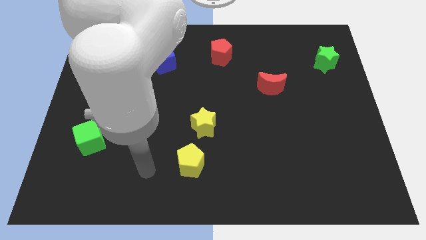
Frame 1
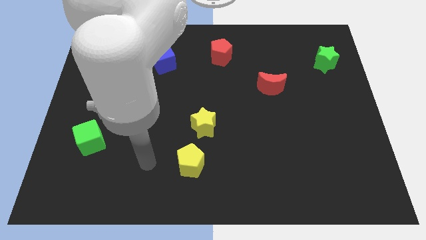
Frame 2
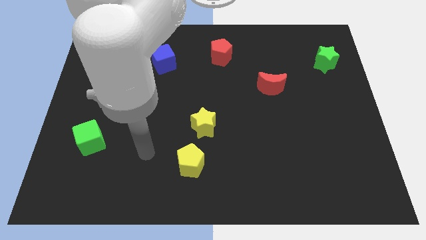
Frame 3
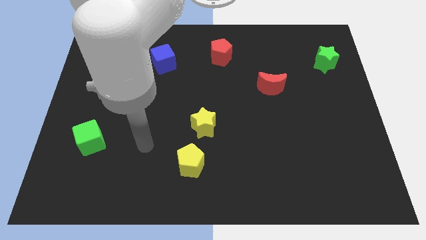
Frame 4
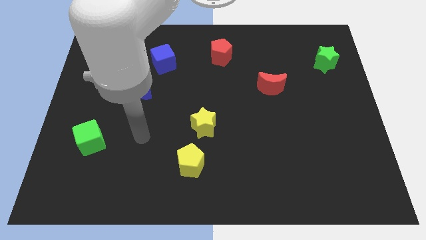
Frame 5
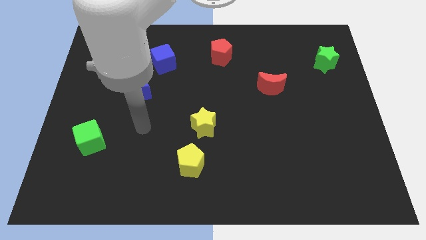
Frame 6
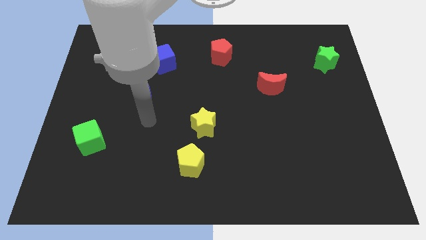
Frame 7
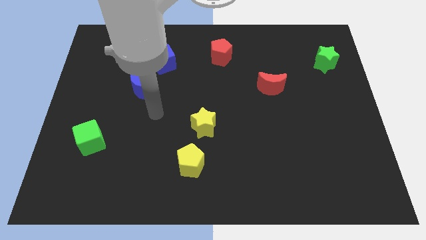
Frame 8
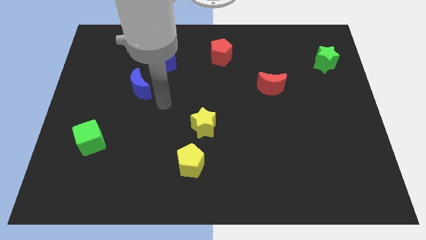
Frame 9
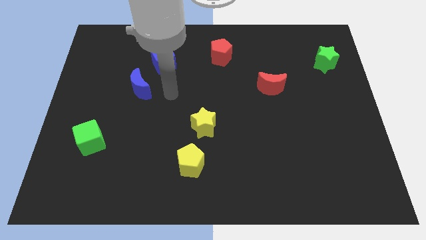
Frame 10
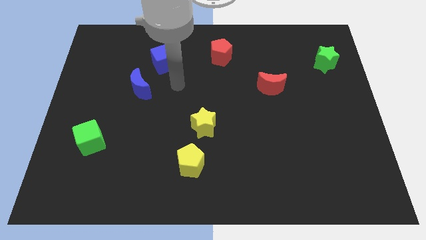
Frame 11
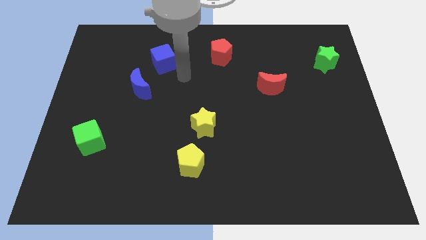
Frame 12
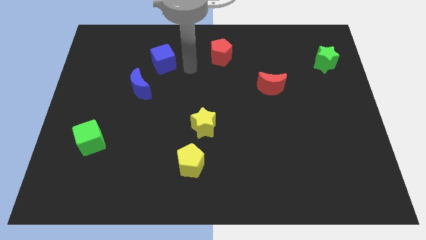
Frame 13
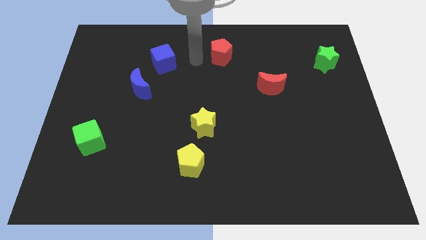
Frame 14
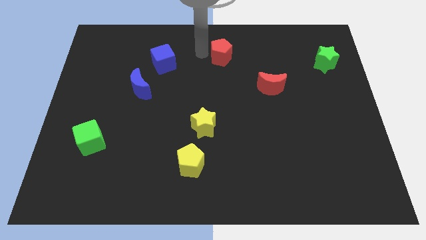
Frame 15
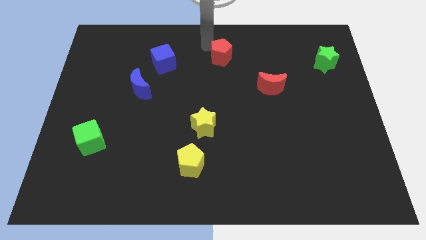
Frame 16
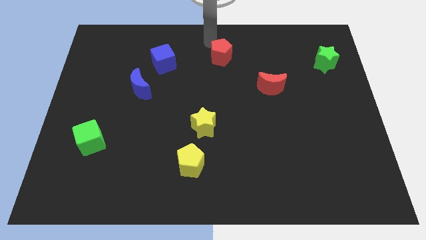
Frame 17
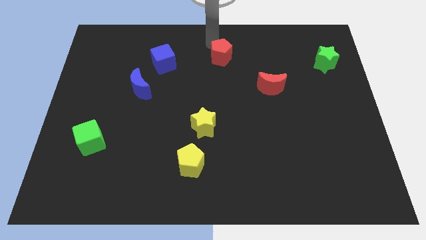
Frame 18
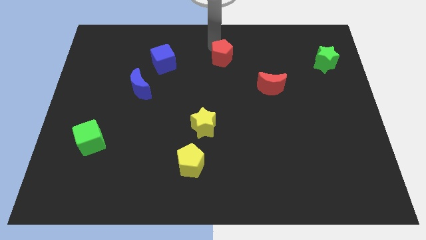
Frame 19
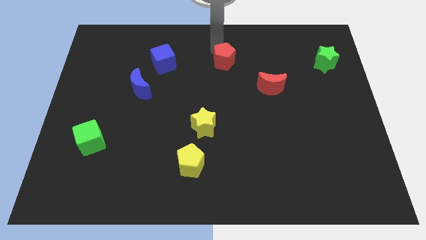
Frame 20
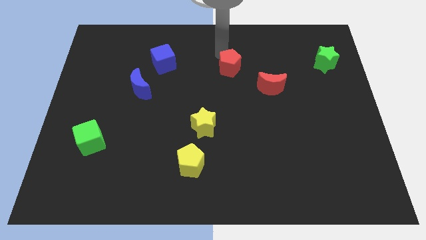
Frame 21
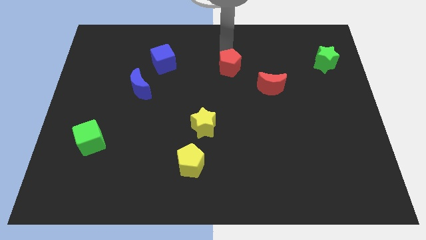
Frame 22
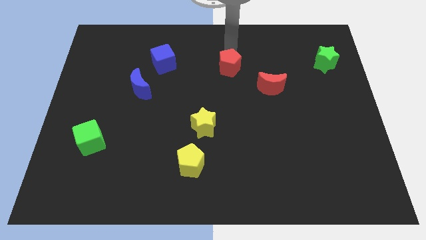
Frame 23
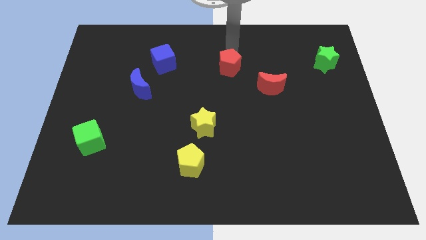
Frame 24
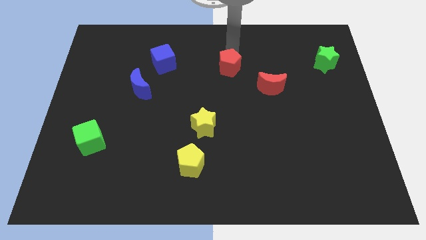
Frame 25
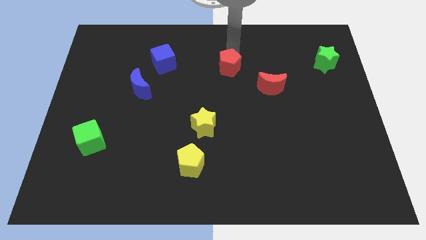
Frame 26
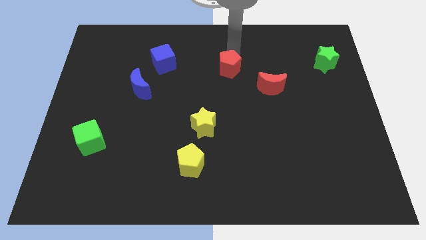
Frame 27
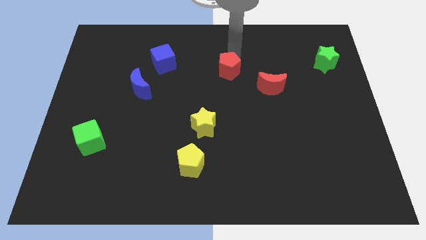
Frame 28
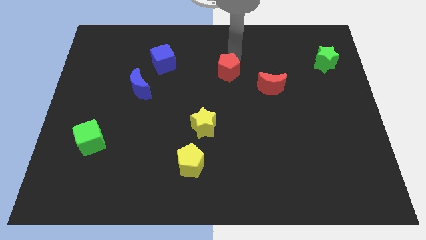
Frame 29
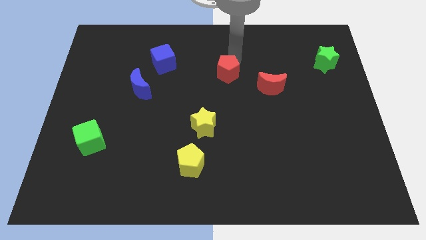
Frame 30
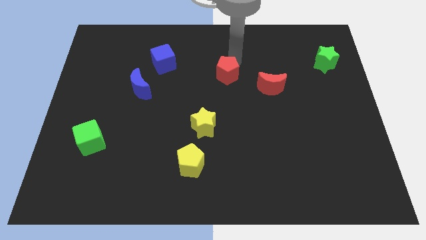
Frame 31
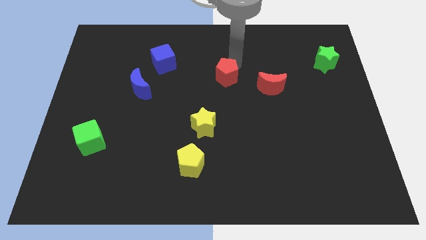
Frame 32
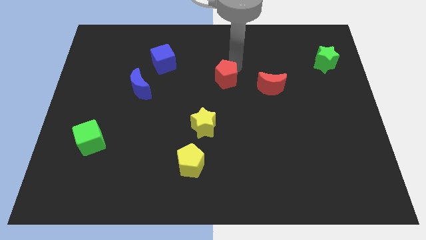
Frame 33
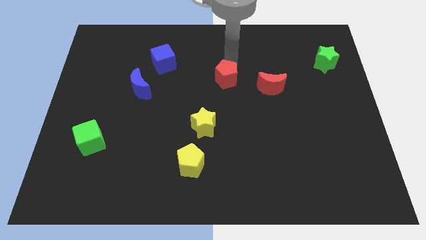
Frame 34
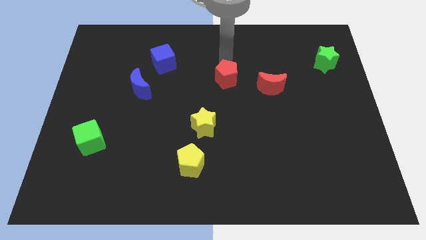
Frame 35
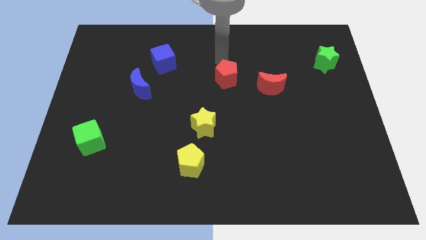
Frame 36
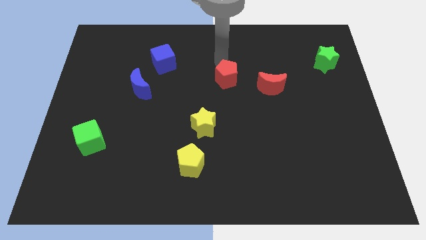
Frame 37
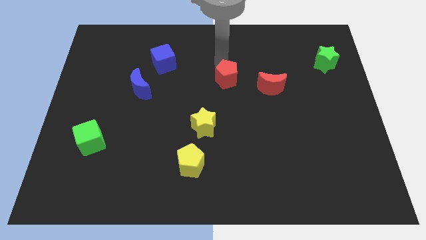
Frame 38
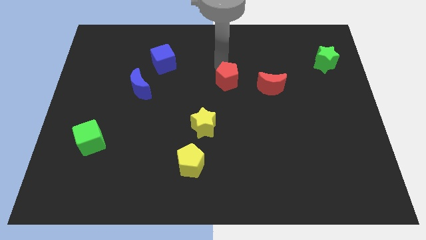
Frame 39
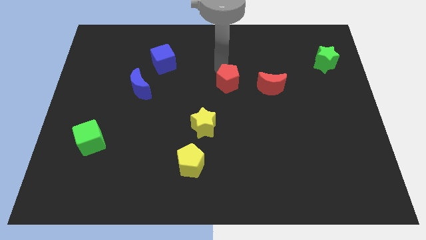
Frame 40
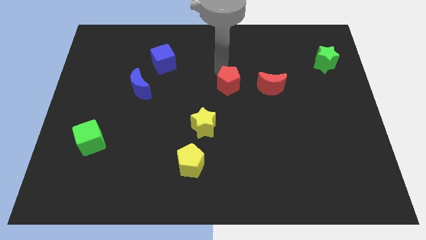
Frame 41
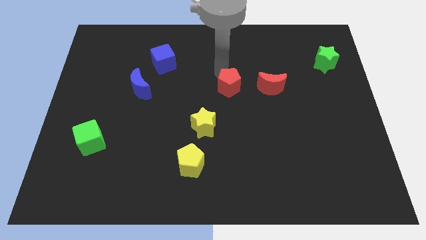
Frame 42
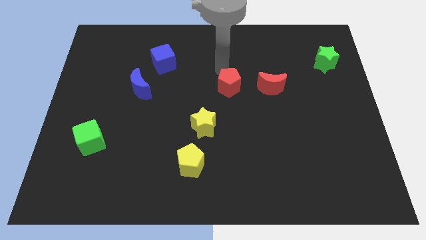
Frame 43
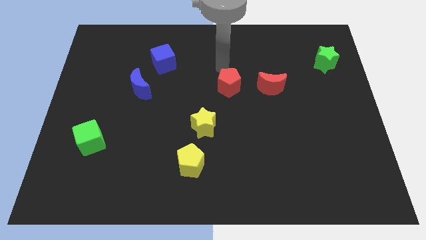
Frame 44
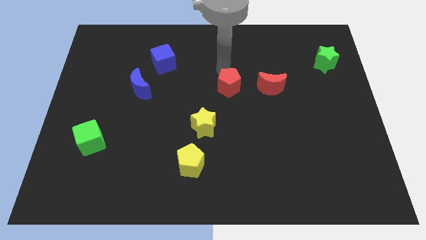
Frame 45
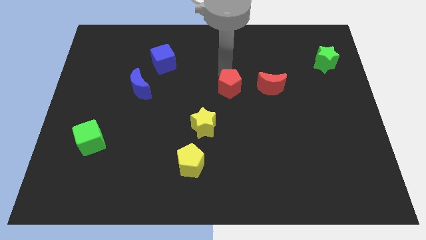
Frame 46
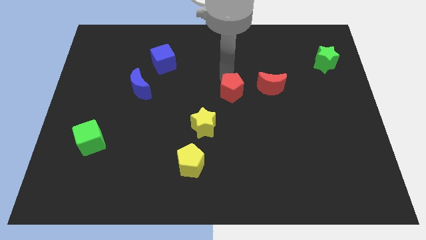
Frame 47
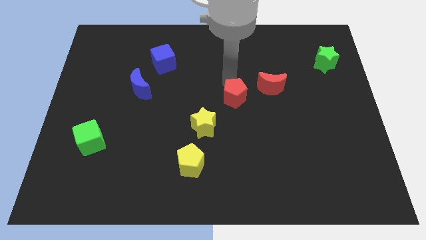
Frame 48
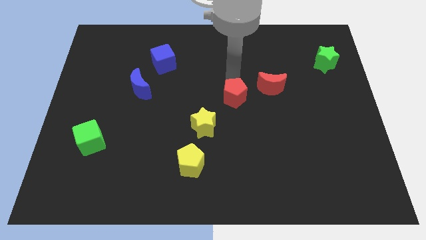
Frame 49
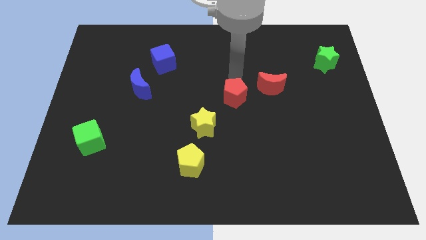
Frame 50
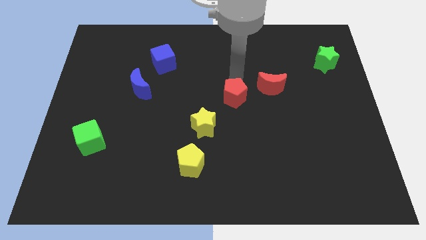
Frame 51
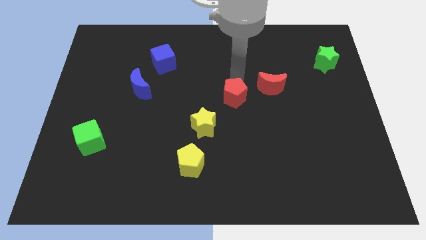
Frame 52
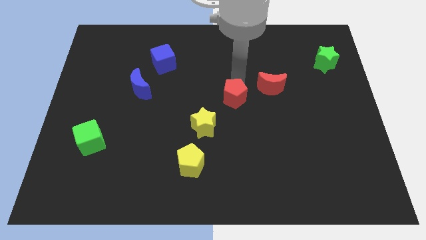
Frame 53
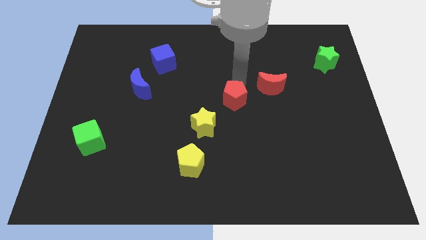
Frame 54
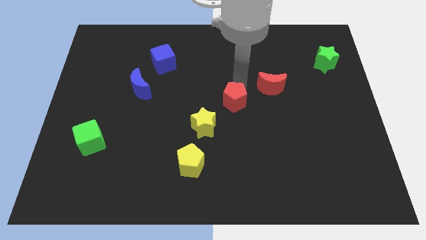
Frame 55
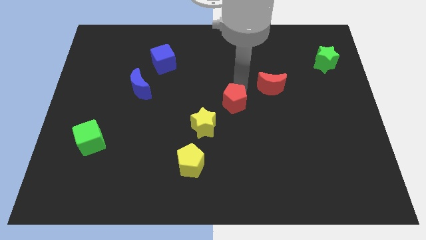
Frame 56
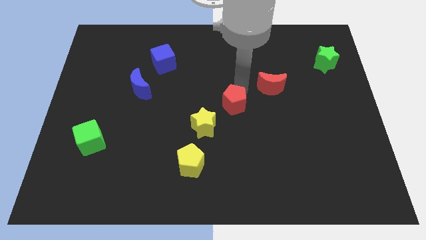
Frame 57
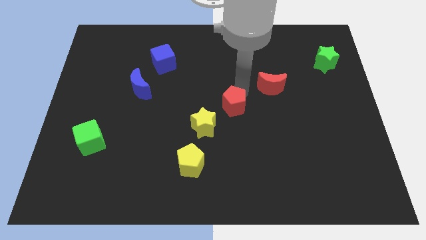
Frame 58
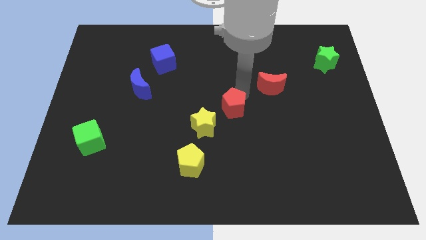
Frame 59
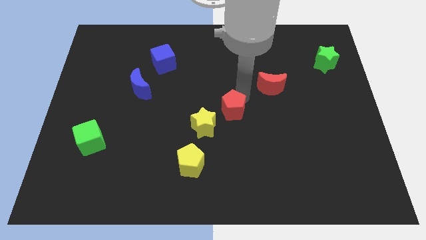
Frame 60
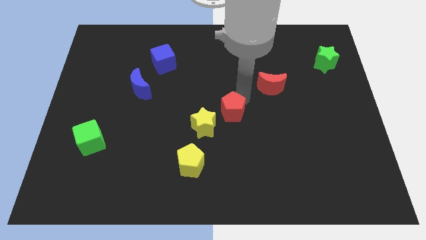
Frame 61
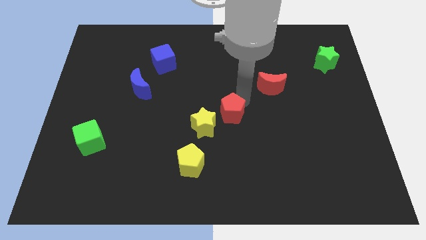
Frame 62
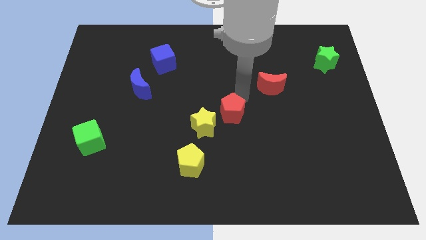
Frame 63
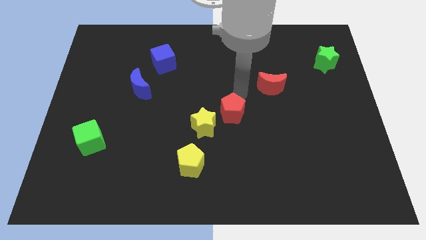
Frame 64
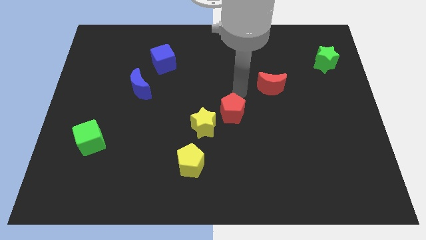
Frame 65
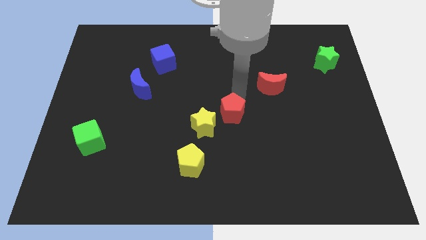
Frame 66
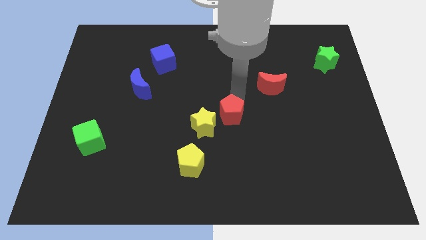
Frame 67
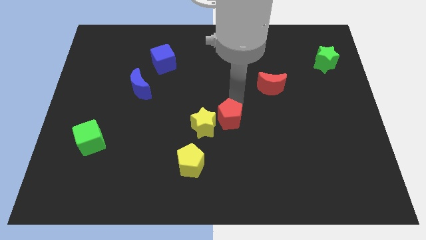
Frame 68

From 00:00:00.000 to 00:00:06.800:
slide the red pentagon downwards

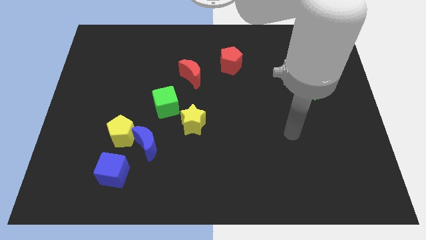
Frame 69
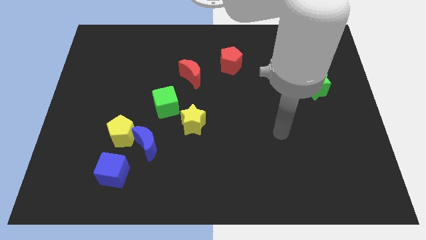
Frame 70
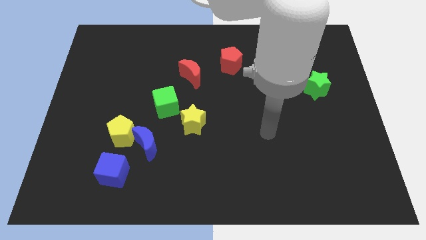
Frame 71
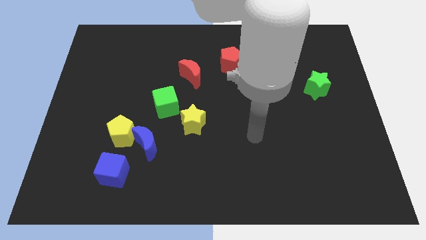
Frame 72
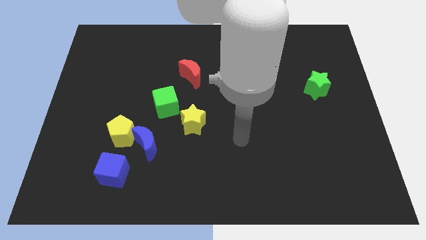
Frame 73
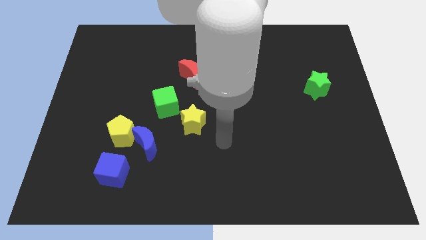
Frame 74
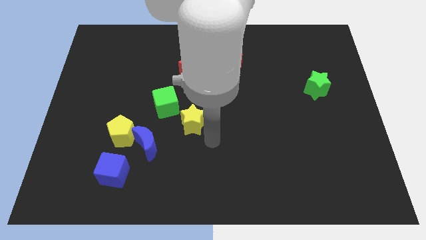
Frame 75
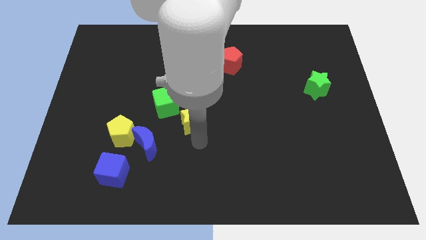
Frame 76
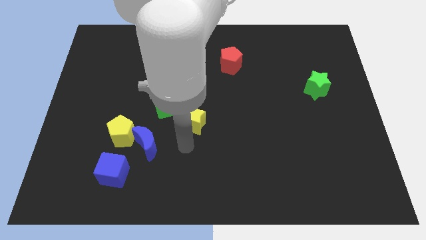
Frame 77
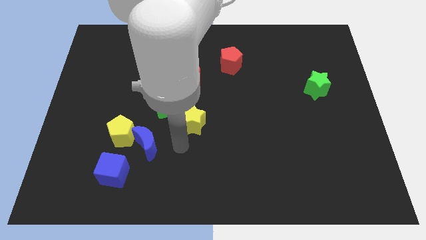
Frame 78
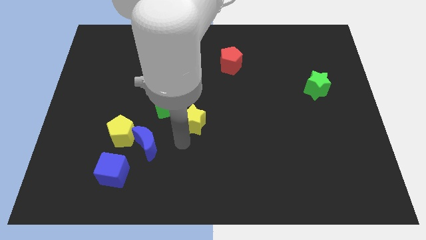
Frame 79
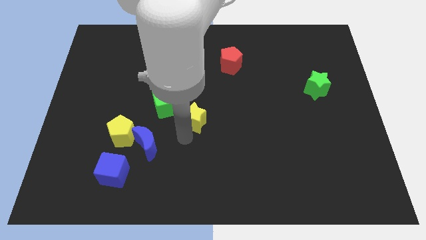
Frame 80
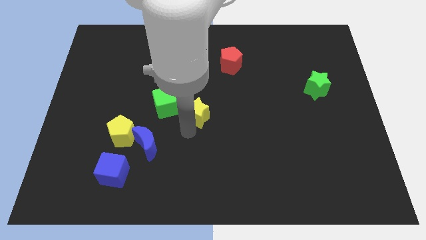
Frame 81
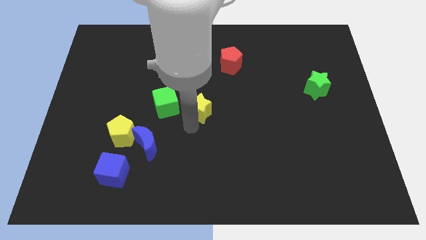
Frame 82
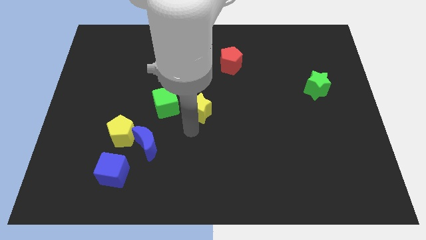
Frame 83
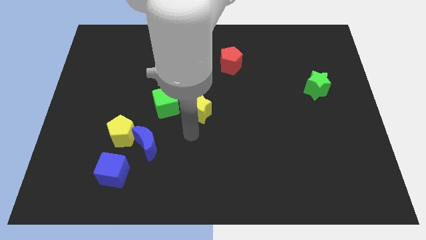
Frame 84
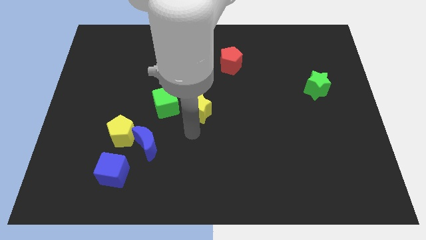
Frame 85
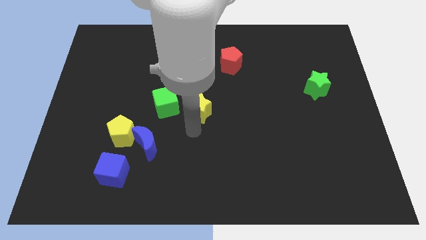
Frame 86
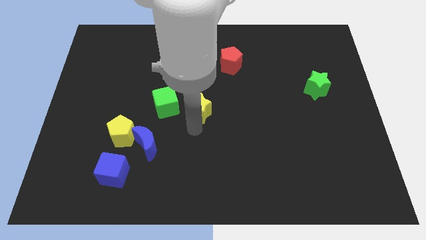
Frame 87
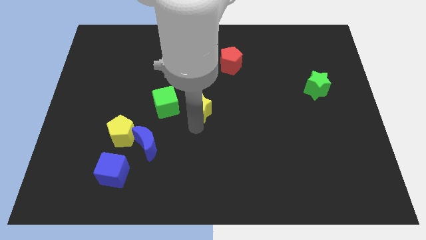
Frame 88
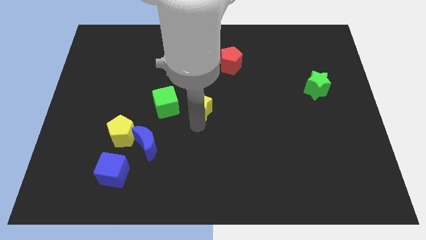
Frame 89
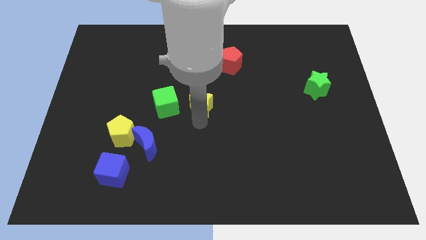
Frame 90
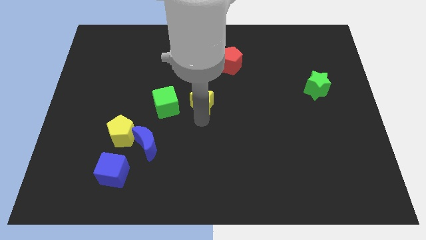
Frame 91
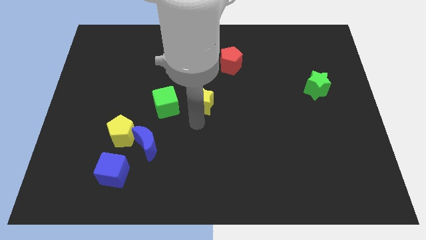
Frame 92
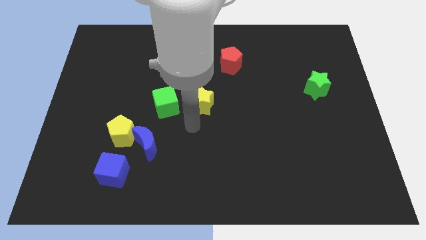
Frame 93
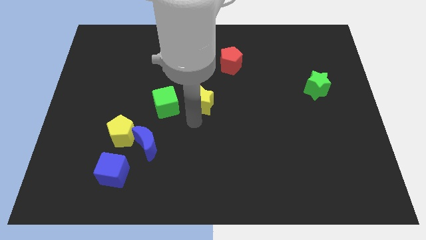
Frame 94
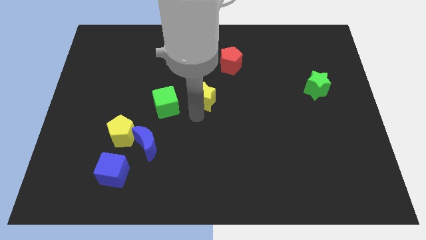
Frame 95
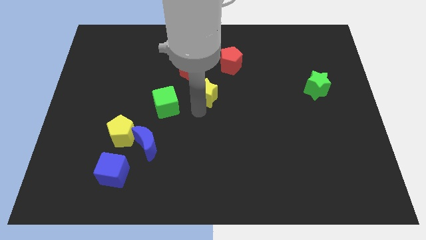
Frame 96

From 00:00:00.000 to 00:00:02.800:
push the yellow star a little upwards
